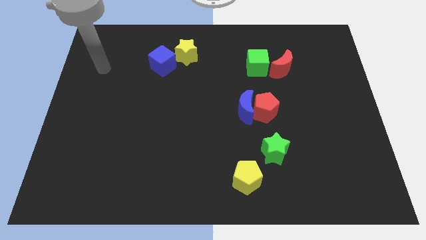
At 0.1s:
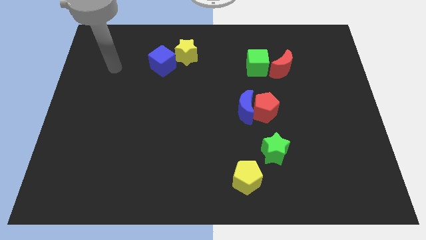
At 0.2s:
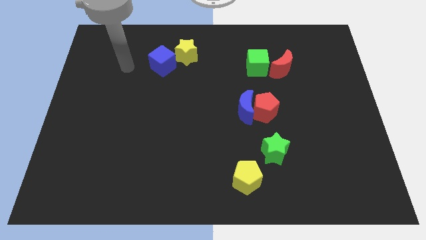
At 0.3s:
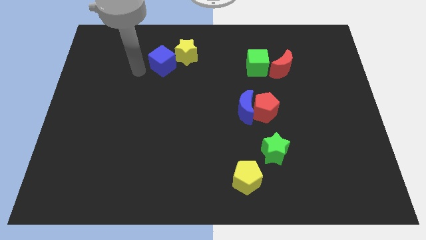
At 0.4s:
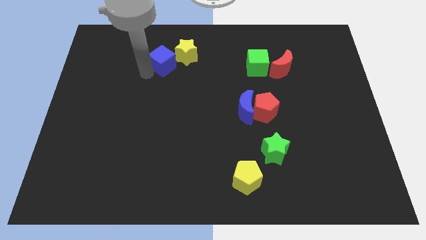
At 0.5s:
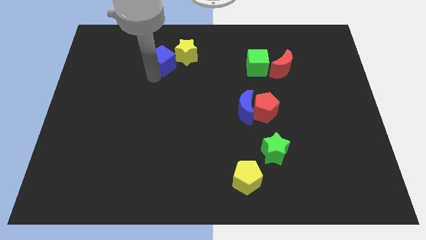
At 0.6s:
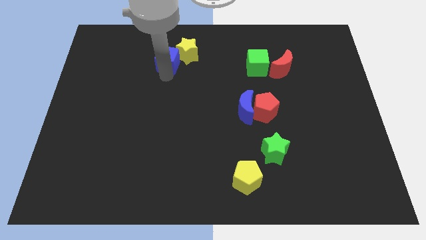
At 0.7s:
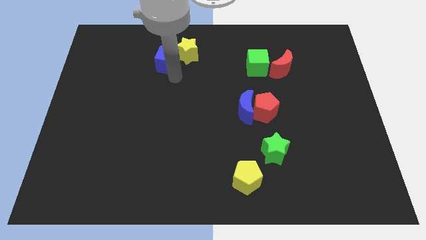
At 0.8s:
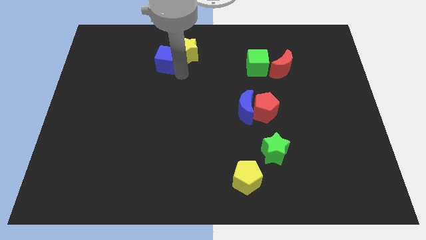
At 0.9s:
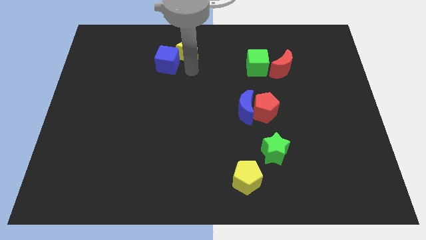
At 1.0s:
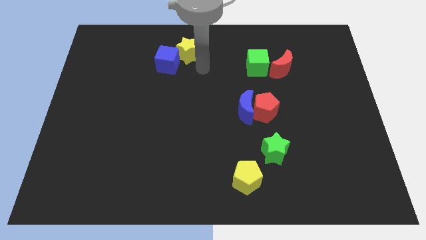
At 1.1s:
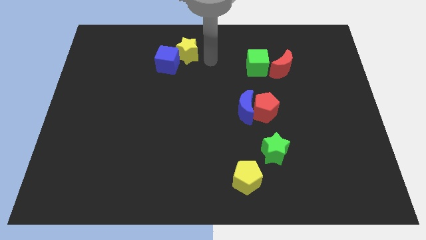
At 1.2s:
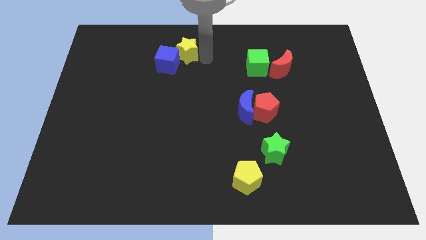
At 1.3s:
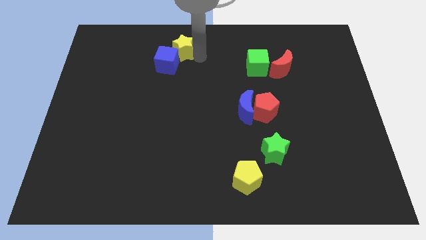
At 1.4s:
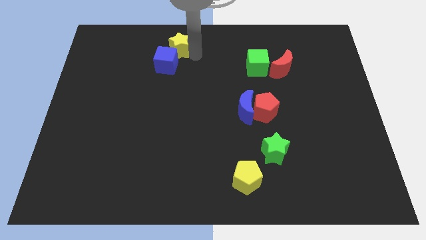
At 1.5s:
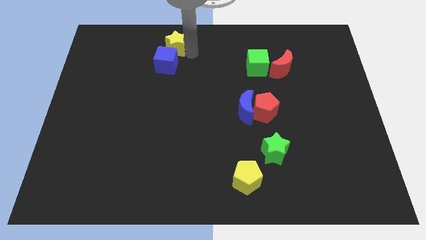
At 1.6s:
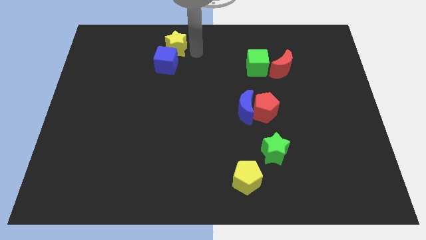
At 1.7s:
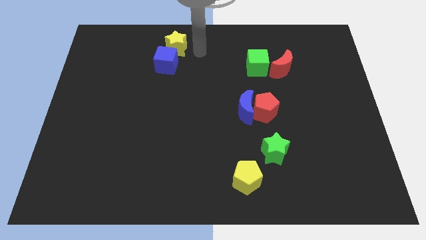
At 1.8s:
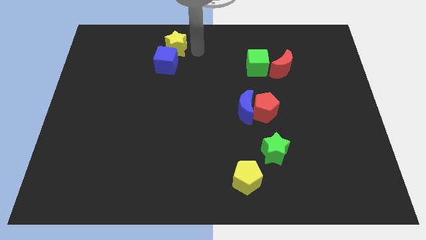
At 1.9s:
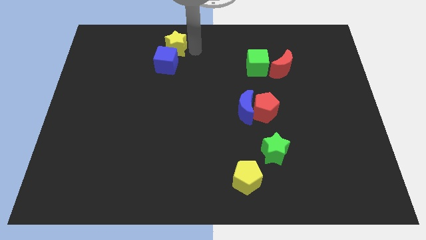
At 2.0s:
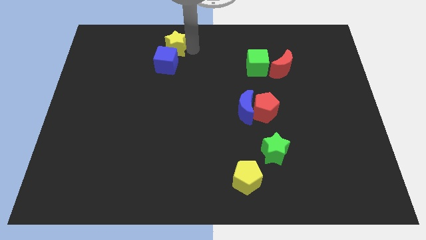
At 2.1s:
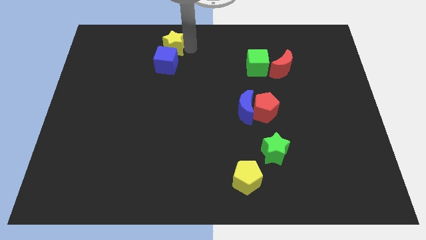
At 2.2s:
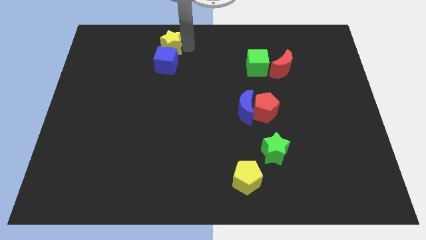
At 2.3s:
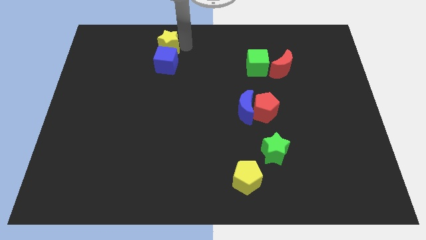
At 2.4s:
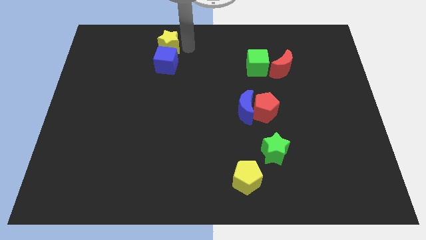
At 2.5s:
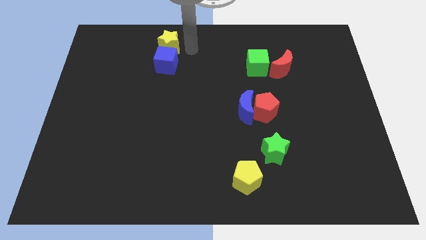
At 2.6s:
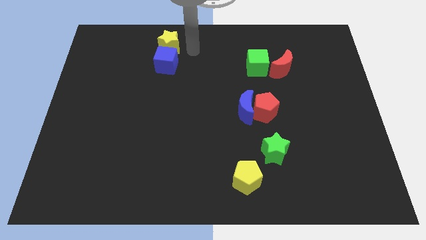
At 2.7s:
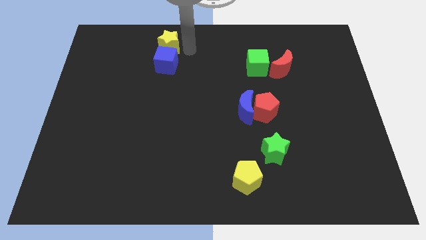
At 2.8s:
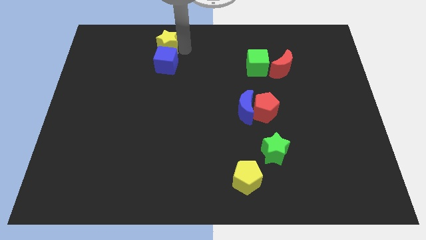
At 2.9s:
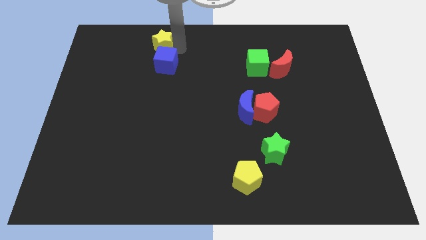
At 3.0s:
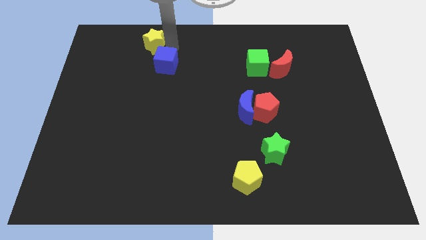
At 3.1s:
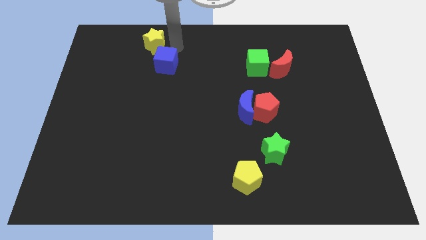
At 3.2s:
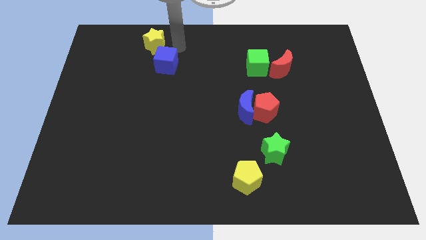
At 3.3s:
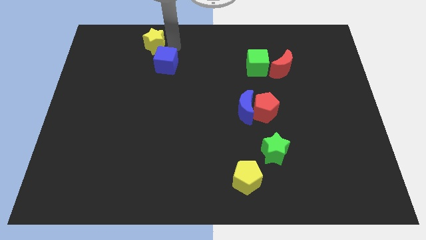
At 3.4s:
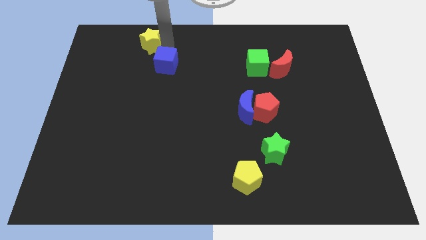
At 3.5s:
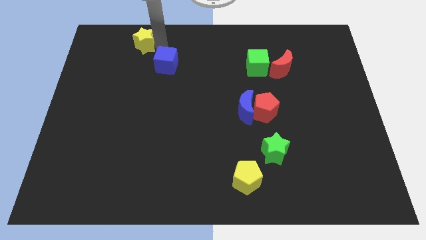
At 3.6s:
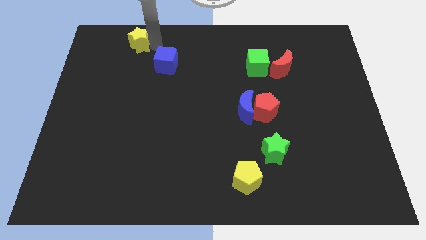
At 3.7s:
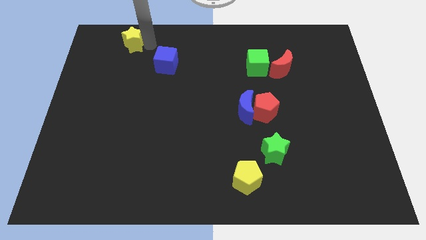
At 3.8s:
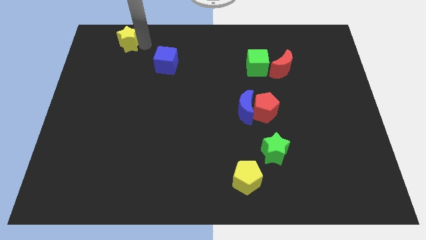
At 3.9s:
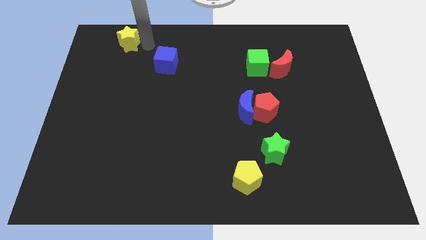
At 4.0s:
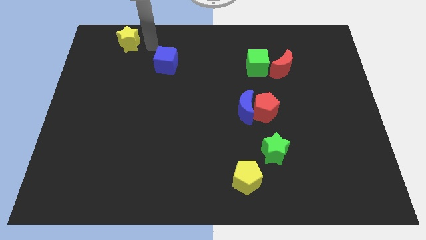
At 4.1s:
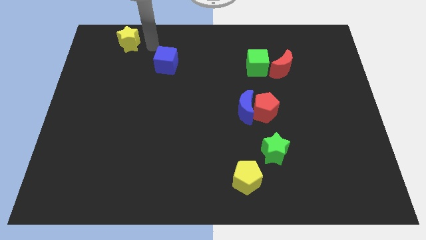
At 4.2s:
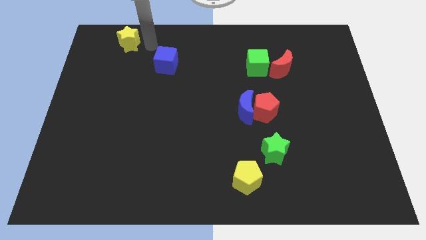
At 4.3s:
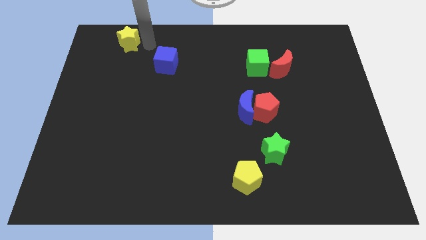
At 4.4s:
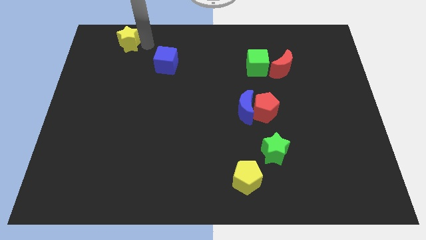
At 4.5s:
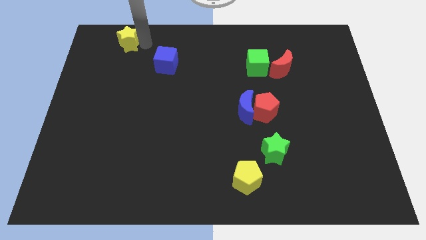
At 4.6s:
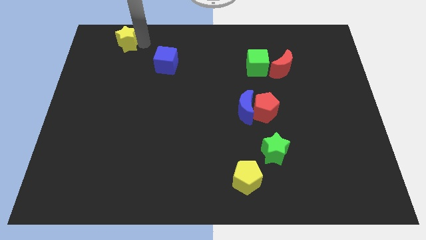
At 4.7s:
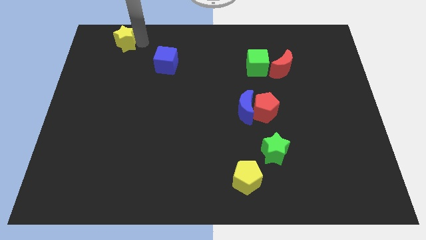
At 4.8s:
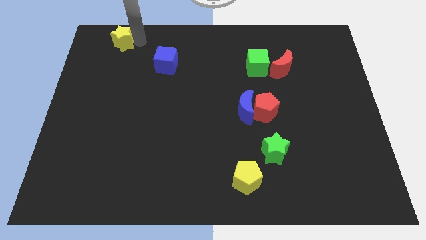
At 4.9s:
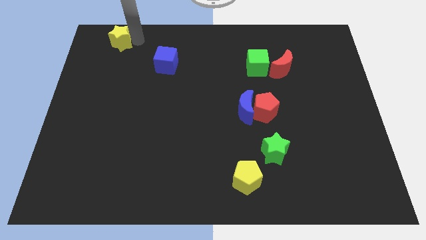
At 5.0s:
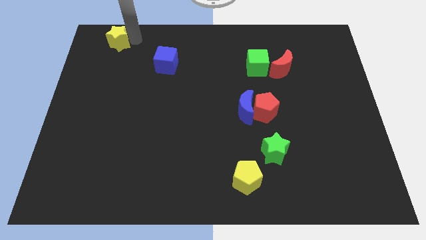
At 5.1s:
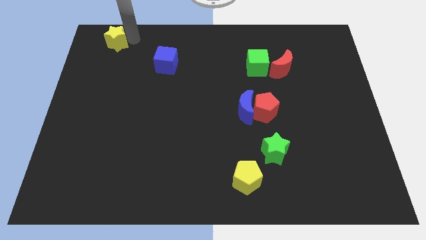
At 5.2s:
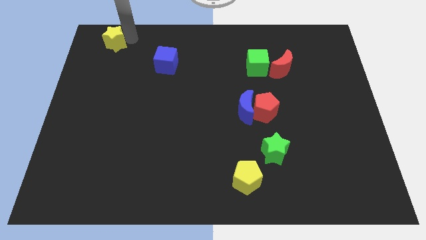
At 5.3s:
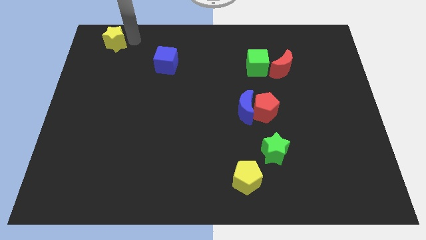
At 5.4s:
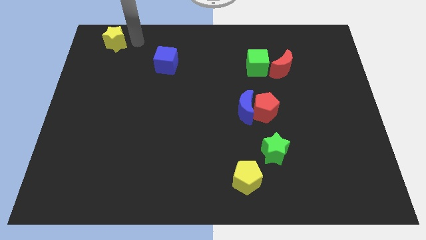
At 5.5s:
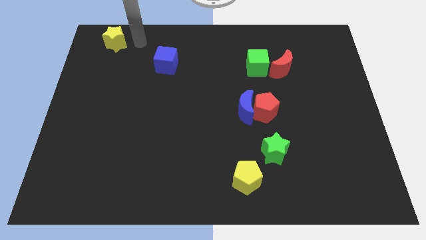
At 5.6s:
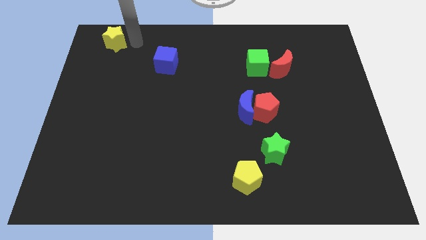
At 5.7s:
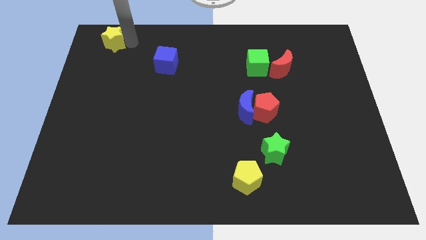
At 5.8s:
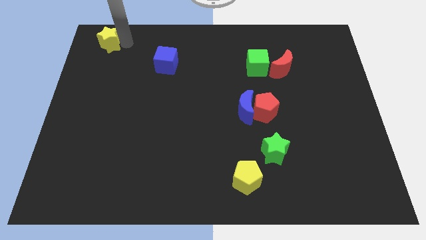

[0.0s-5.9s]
move the yellow star to the upper left corner
